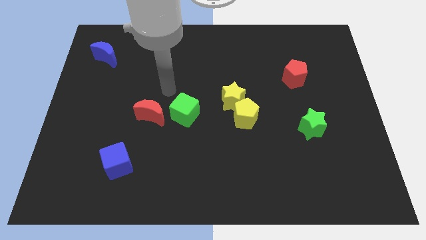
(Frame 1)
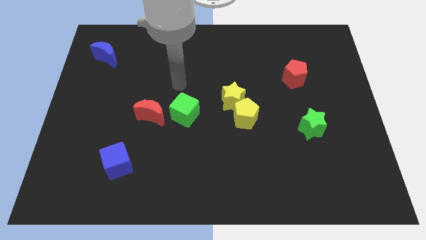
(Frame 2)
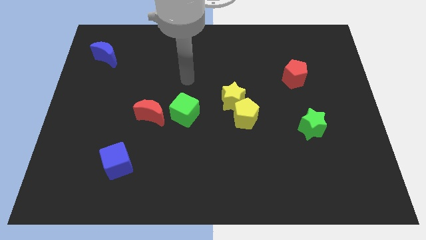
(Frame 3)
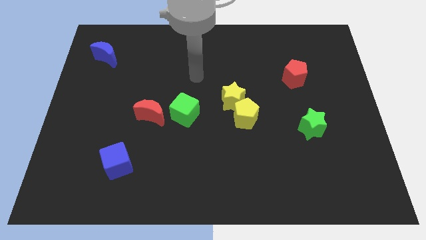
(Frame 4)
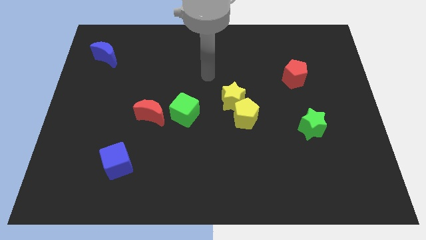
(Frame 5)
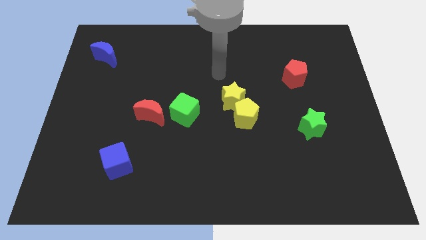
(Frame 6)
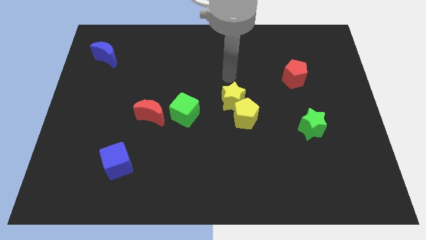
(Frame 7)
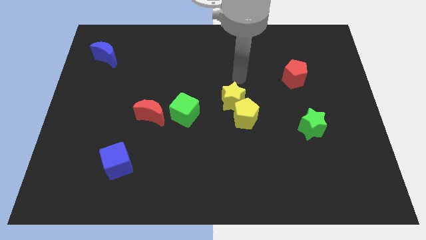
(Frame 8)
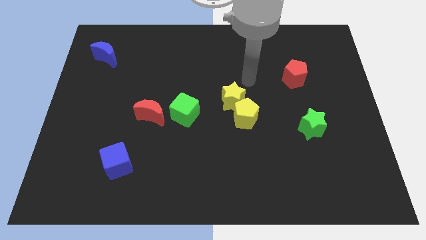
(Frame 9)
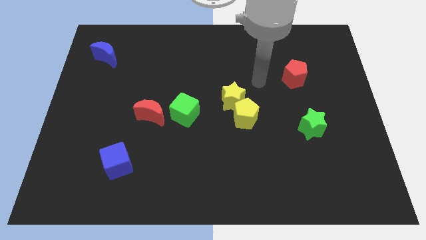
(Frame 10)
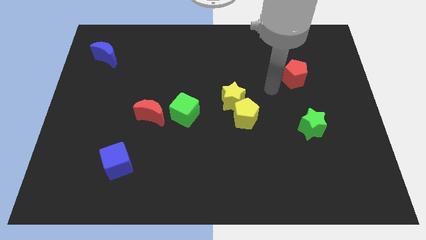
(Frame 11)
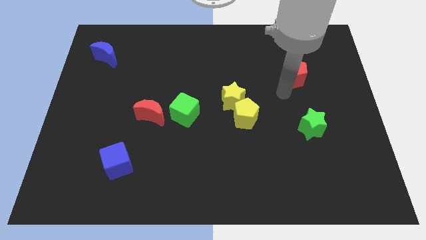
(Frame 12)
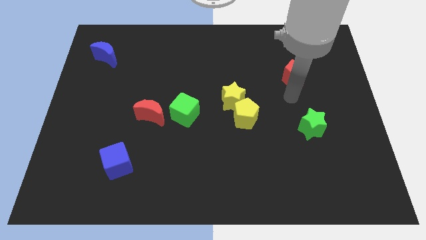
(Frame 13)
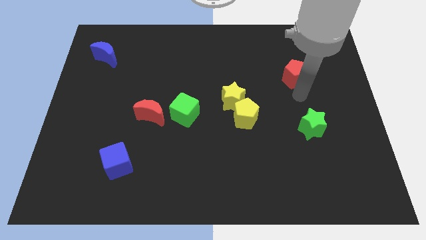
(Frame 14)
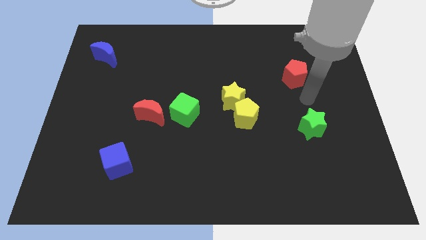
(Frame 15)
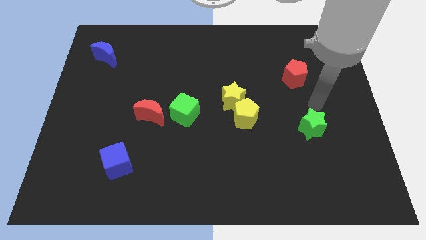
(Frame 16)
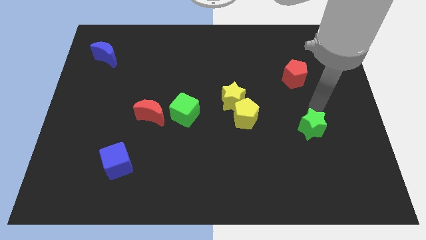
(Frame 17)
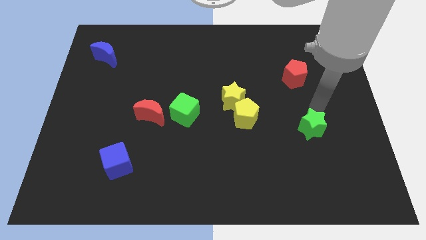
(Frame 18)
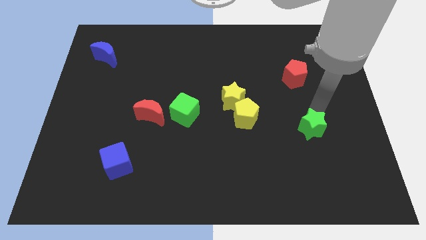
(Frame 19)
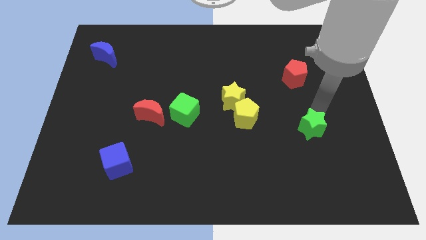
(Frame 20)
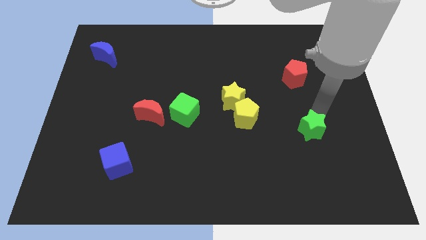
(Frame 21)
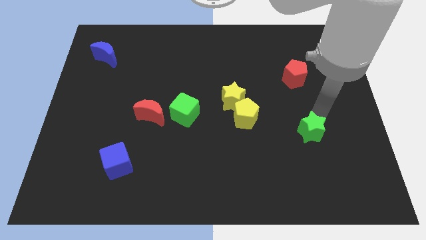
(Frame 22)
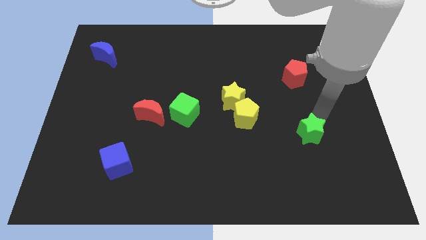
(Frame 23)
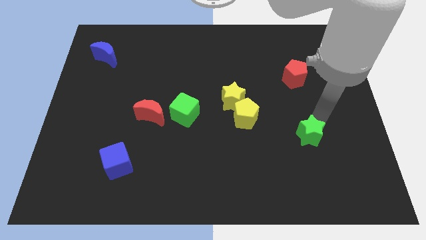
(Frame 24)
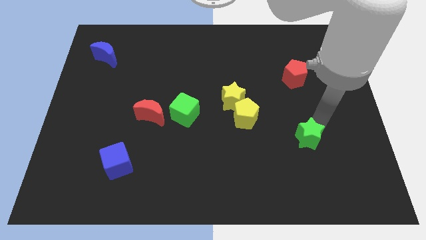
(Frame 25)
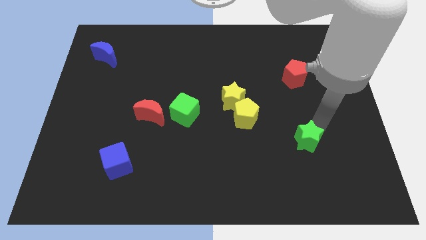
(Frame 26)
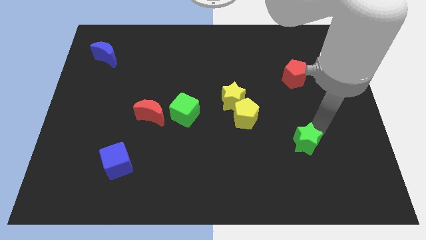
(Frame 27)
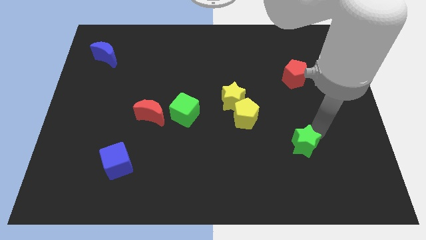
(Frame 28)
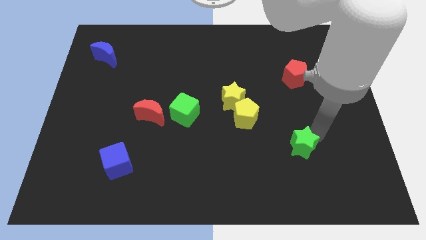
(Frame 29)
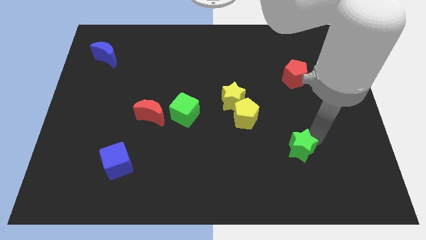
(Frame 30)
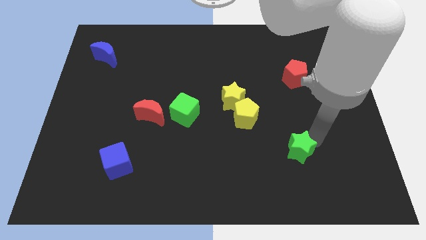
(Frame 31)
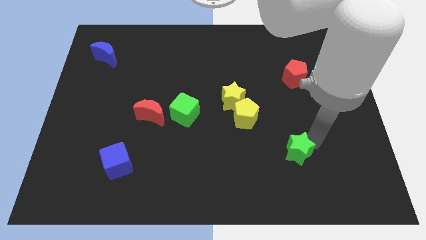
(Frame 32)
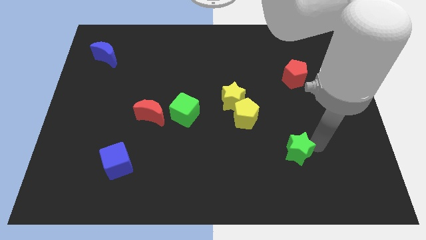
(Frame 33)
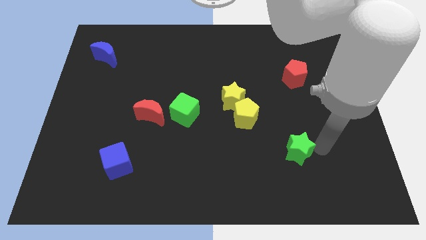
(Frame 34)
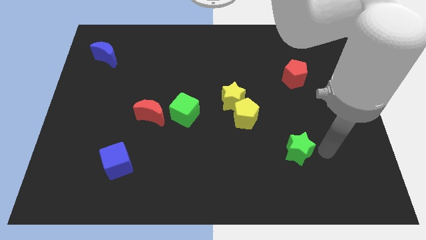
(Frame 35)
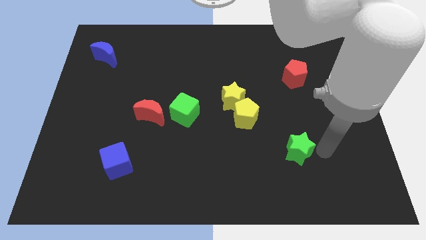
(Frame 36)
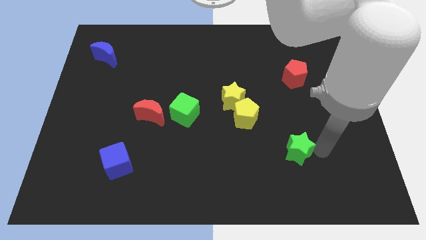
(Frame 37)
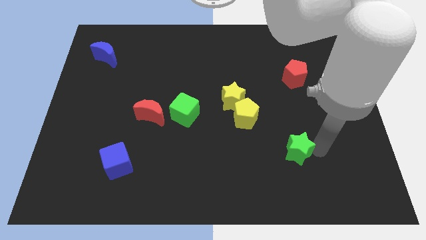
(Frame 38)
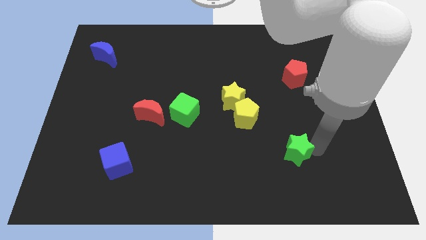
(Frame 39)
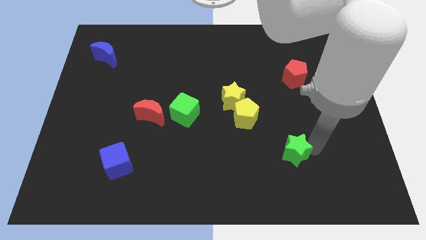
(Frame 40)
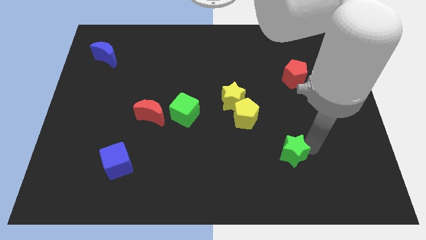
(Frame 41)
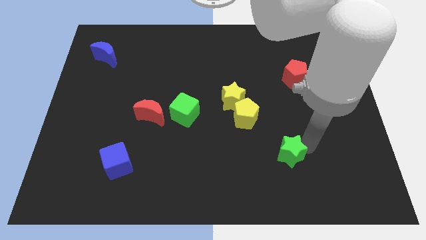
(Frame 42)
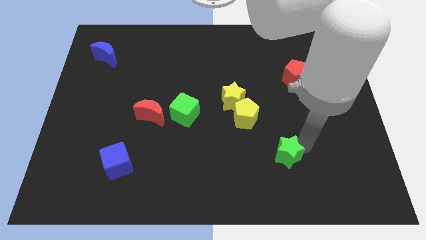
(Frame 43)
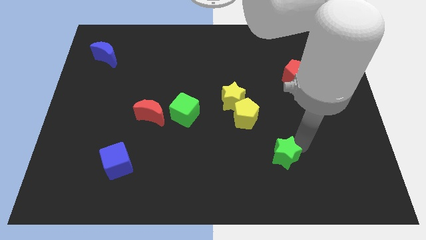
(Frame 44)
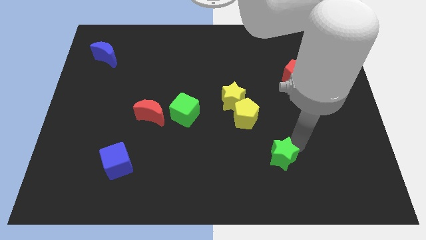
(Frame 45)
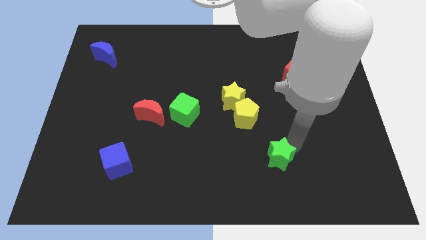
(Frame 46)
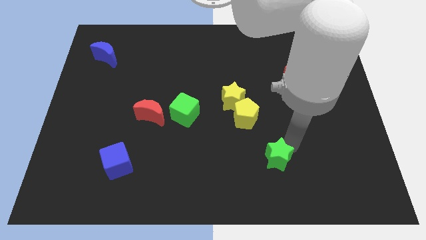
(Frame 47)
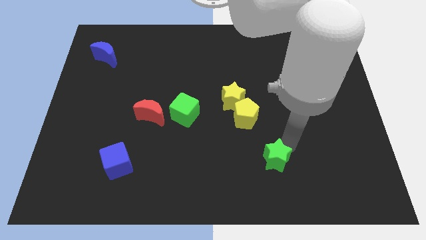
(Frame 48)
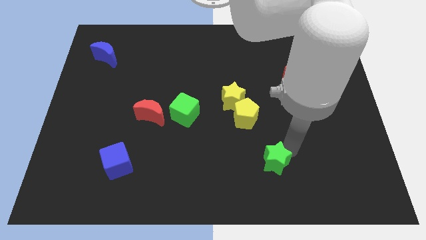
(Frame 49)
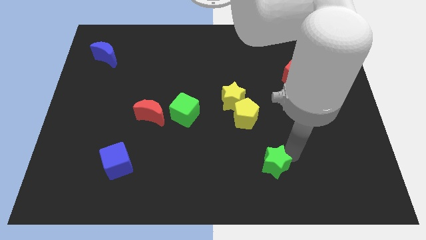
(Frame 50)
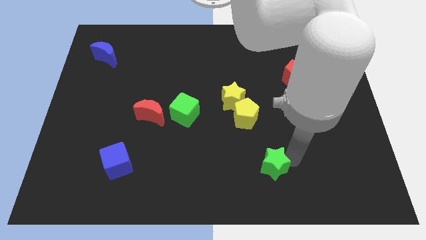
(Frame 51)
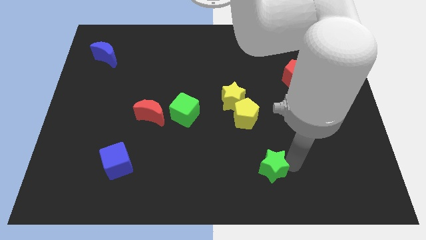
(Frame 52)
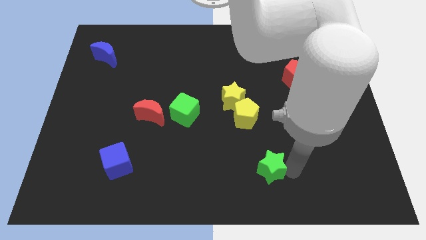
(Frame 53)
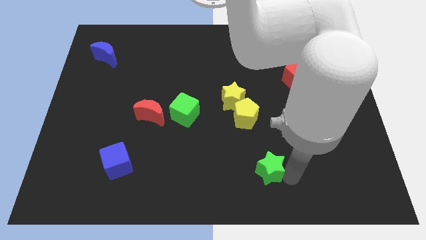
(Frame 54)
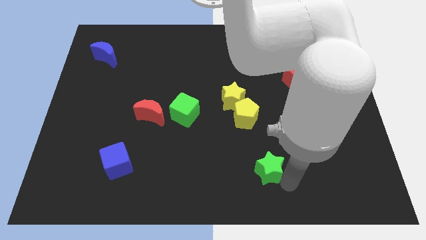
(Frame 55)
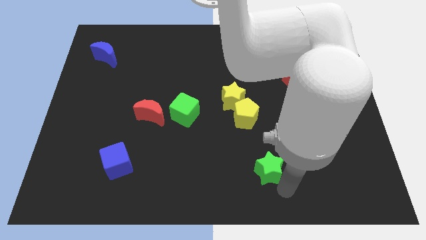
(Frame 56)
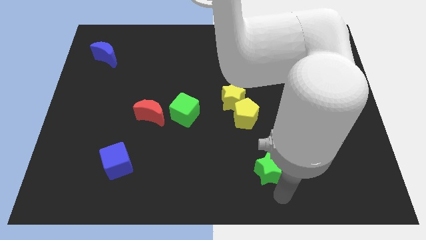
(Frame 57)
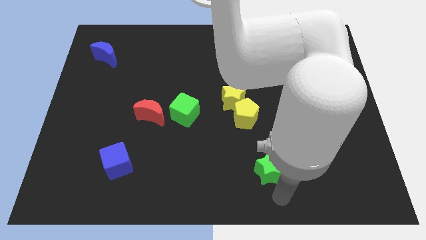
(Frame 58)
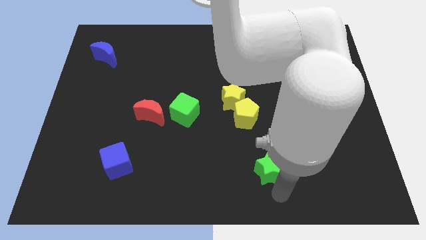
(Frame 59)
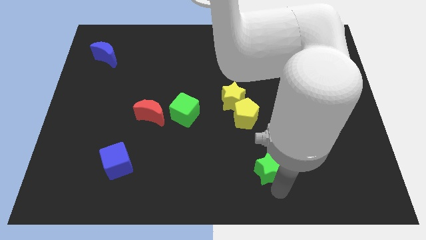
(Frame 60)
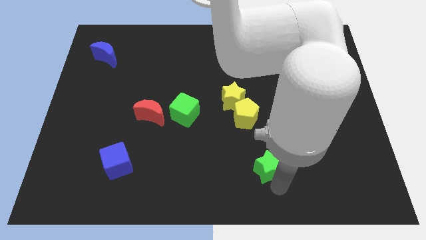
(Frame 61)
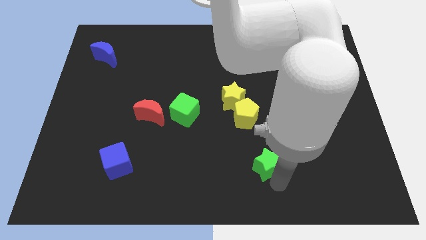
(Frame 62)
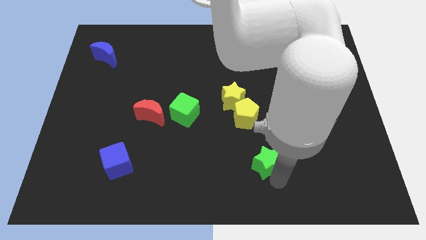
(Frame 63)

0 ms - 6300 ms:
push the green star a bit left

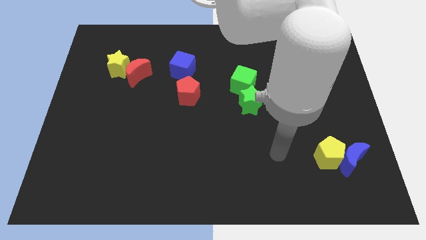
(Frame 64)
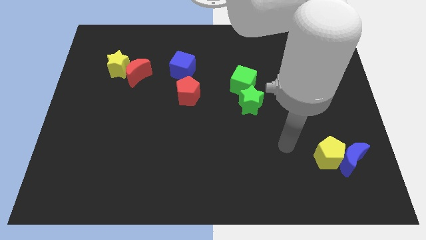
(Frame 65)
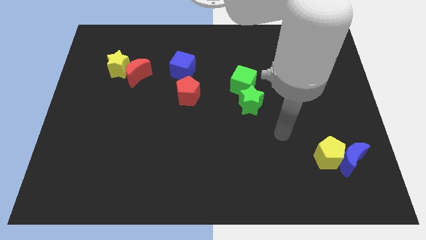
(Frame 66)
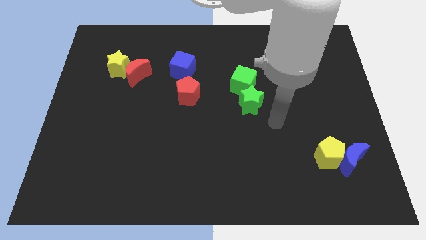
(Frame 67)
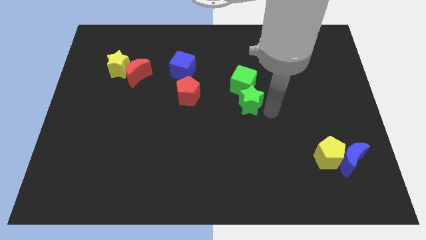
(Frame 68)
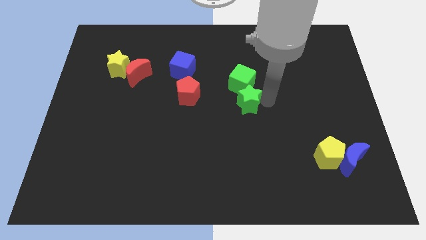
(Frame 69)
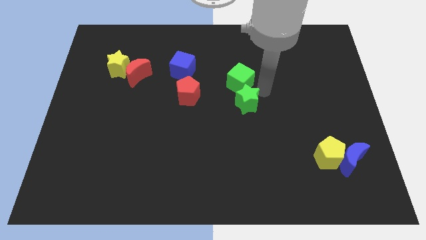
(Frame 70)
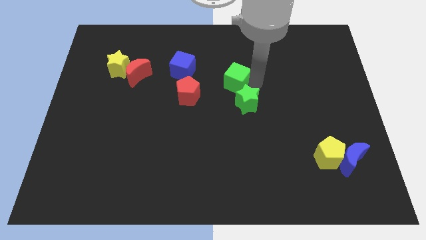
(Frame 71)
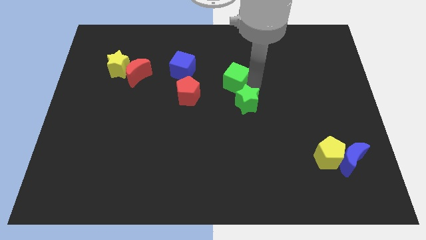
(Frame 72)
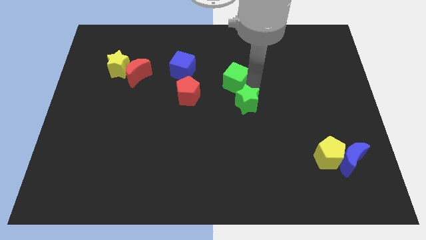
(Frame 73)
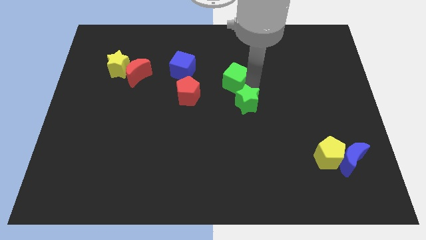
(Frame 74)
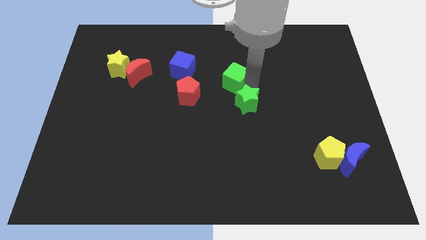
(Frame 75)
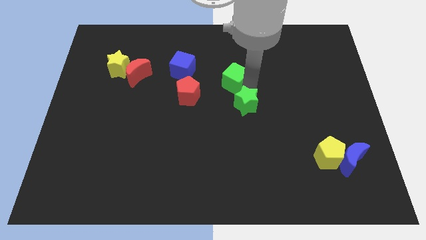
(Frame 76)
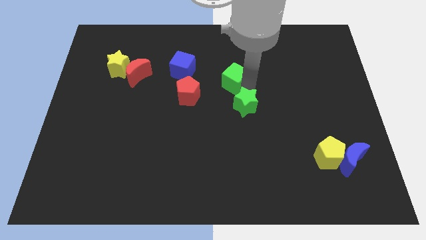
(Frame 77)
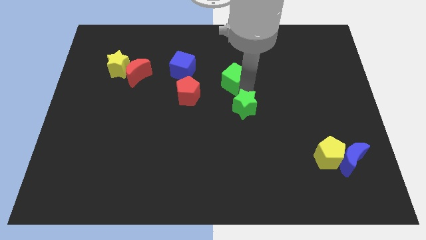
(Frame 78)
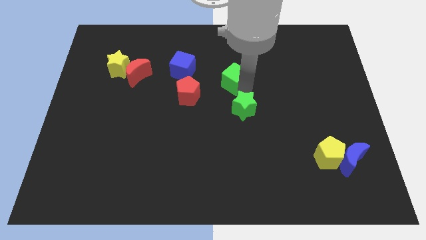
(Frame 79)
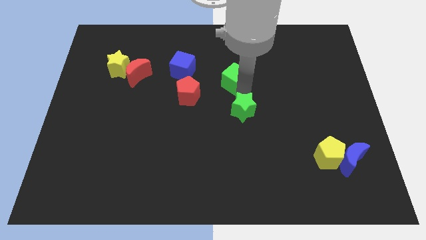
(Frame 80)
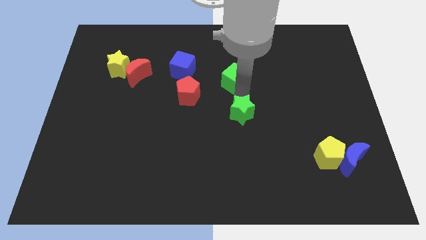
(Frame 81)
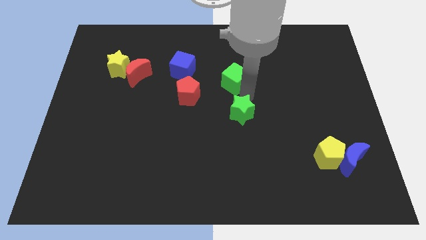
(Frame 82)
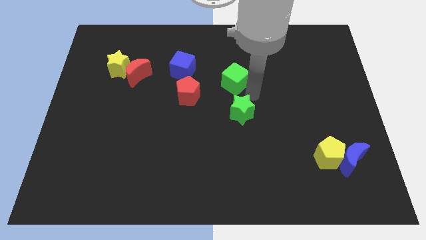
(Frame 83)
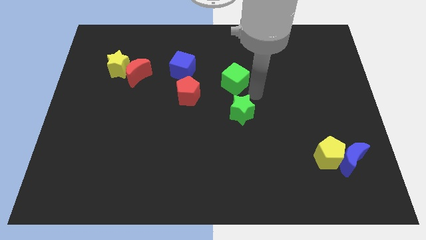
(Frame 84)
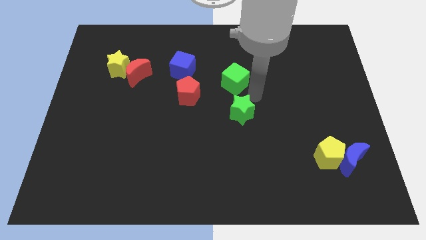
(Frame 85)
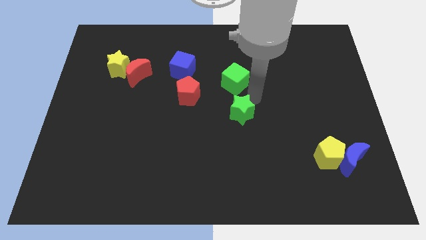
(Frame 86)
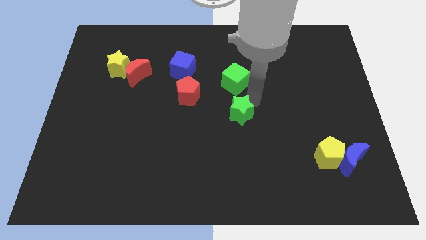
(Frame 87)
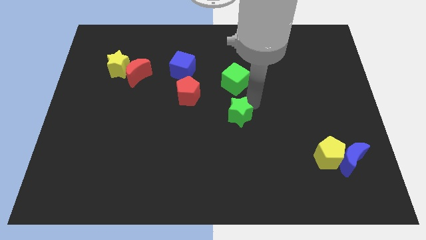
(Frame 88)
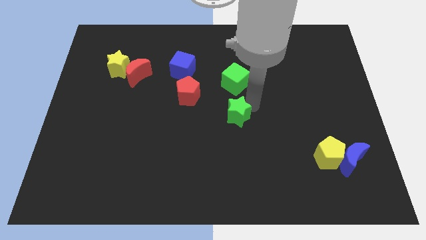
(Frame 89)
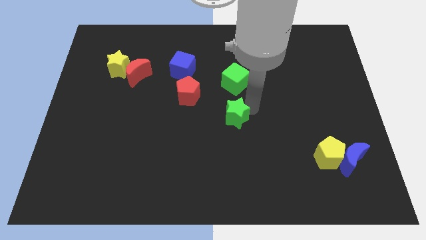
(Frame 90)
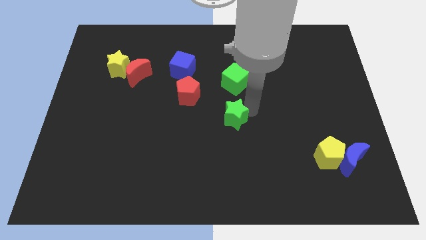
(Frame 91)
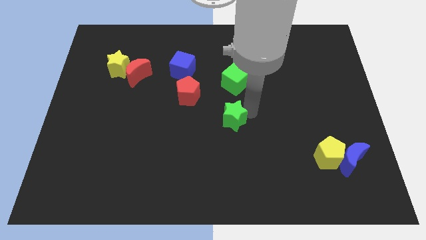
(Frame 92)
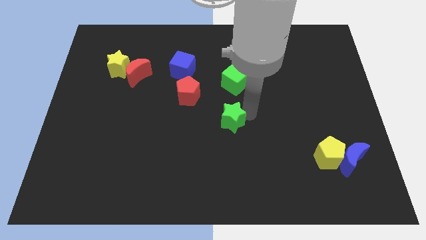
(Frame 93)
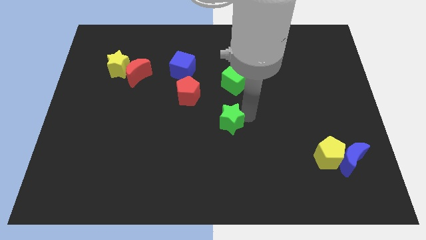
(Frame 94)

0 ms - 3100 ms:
slightly push the green star diagonally downwards and to the left
